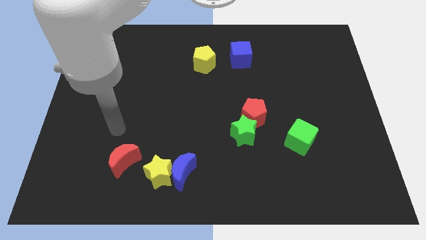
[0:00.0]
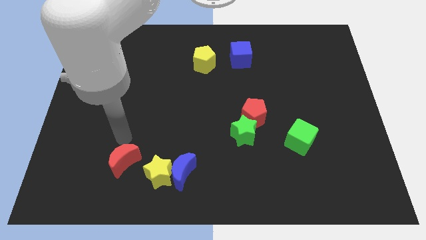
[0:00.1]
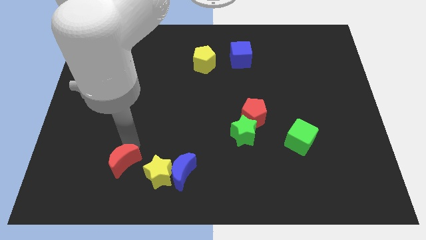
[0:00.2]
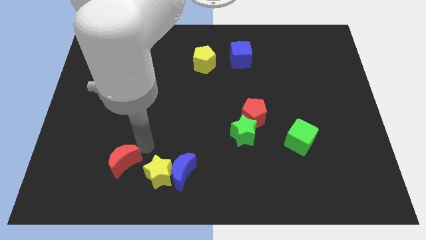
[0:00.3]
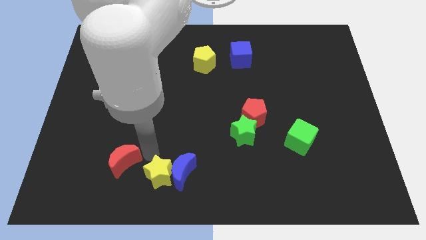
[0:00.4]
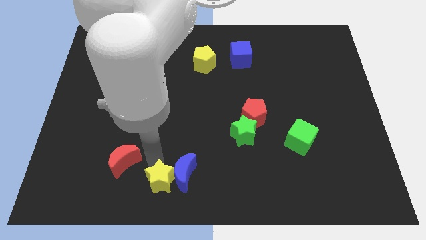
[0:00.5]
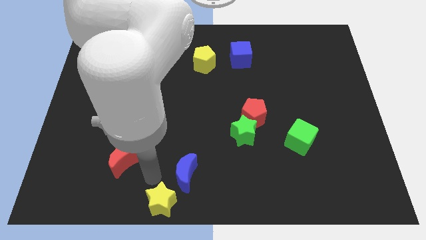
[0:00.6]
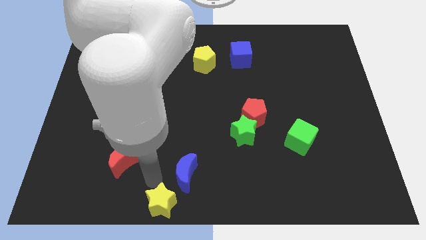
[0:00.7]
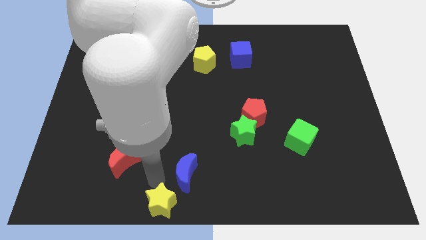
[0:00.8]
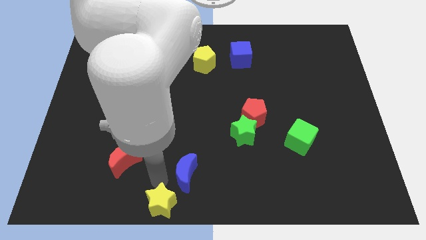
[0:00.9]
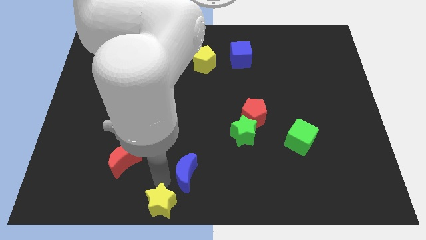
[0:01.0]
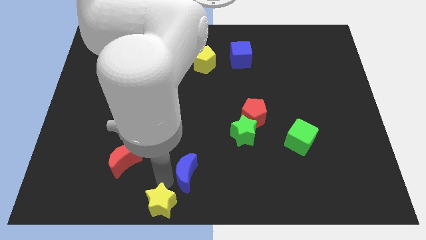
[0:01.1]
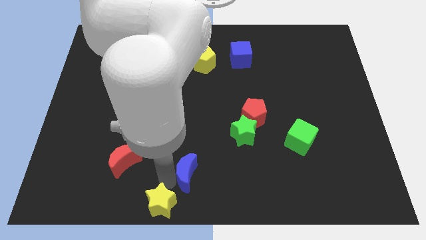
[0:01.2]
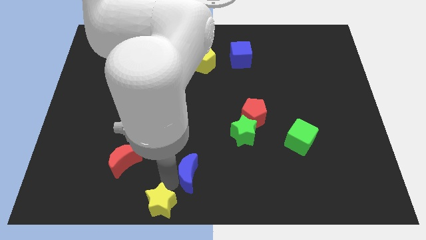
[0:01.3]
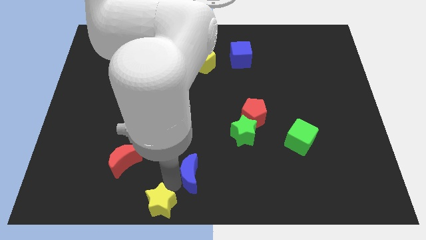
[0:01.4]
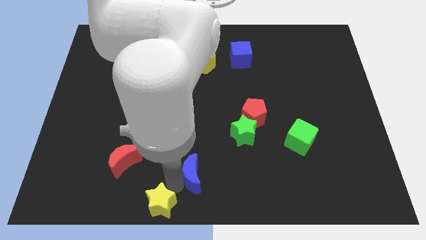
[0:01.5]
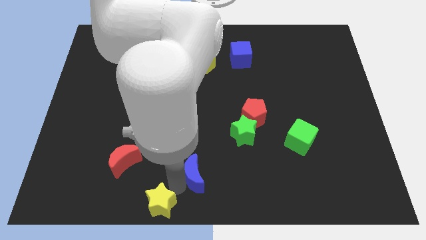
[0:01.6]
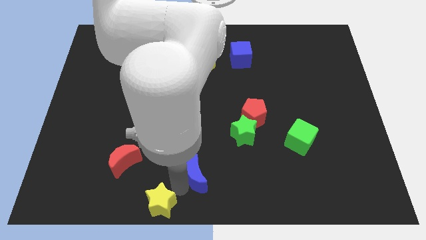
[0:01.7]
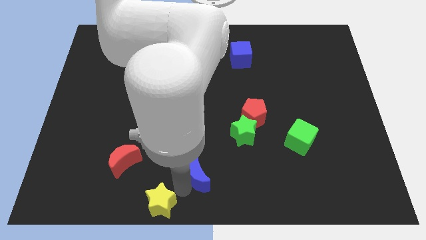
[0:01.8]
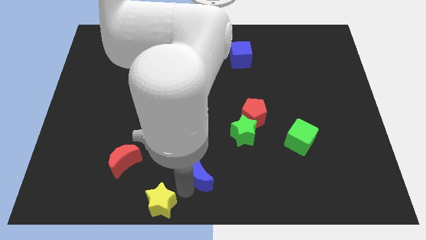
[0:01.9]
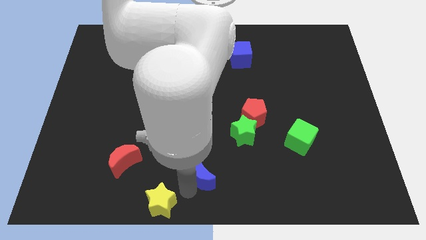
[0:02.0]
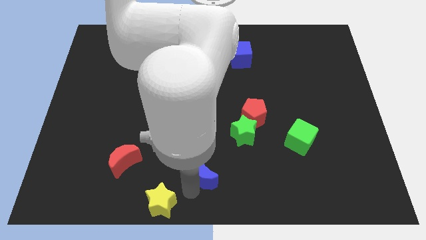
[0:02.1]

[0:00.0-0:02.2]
separate the blue moon from the yellow star

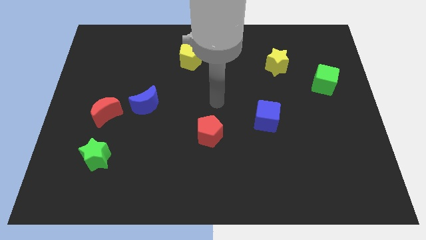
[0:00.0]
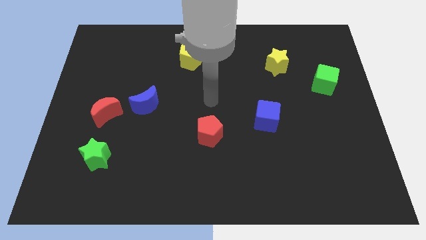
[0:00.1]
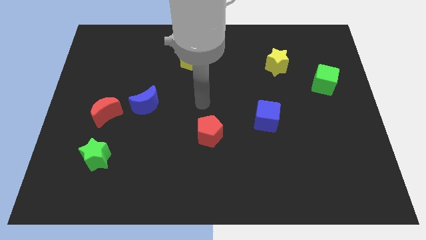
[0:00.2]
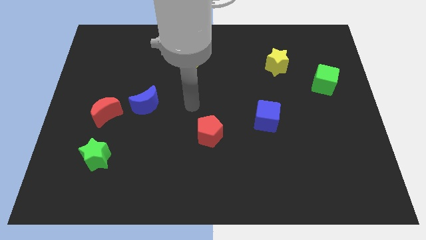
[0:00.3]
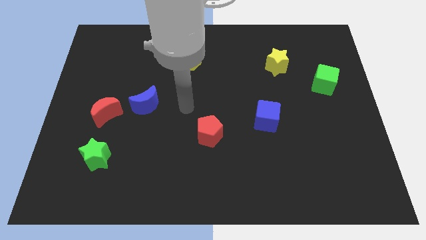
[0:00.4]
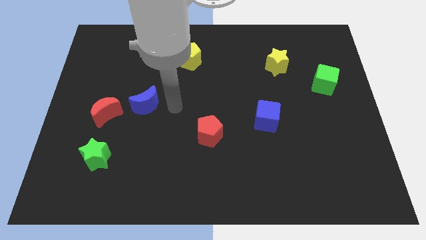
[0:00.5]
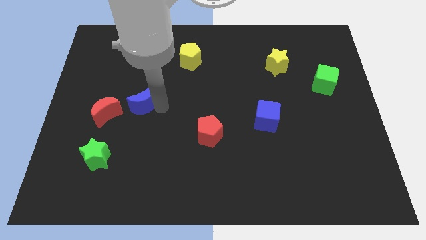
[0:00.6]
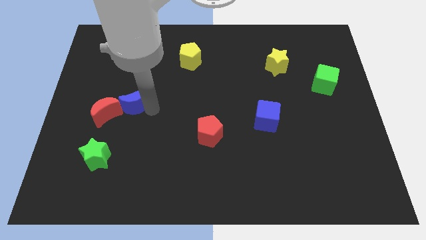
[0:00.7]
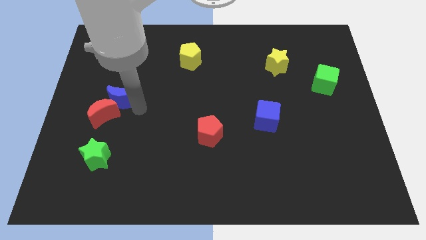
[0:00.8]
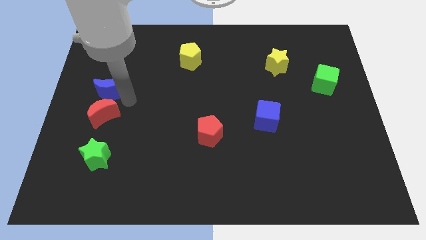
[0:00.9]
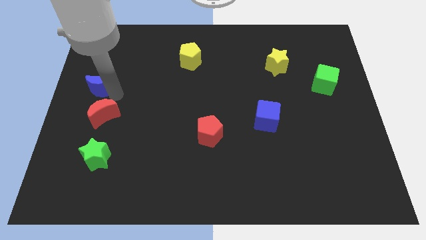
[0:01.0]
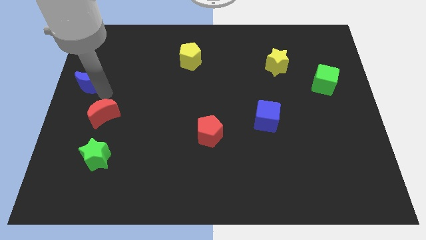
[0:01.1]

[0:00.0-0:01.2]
separate the red moon from the blue moon

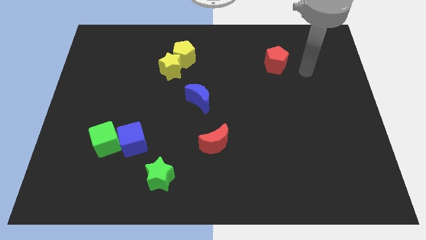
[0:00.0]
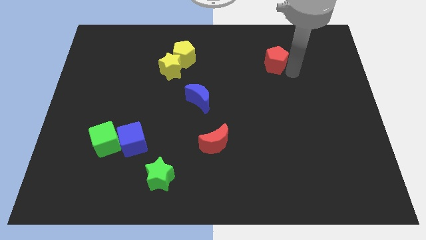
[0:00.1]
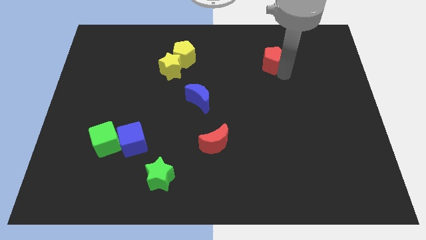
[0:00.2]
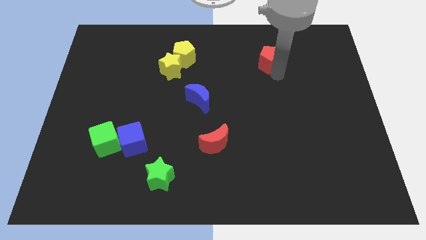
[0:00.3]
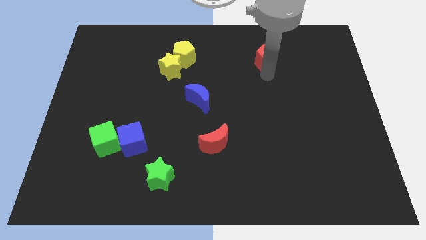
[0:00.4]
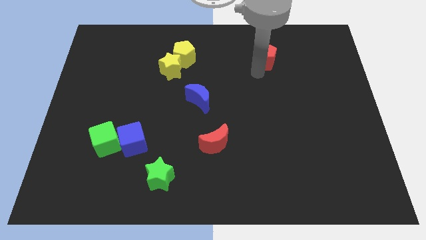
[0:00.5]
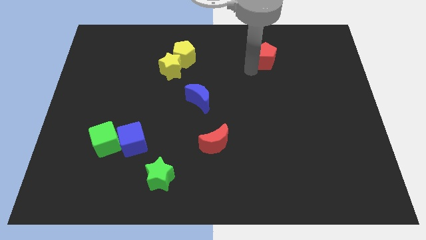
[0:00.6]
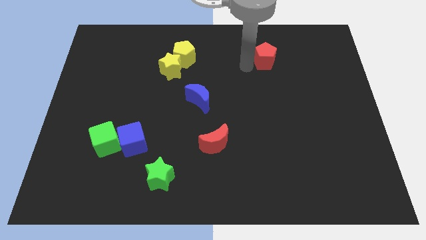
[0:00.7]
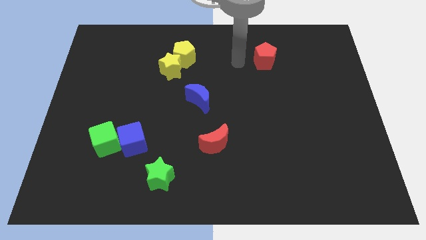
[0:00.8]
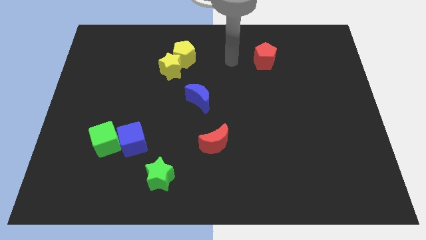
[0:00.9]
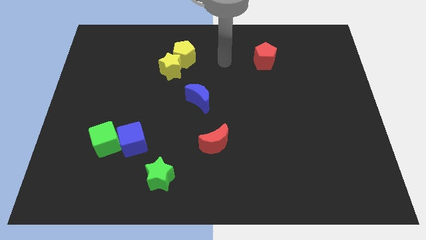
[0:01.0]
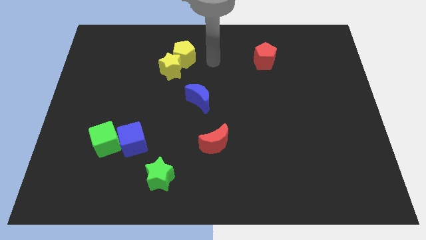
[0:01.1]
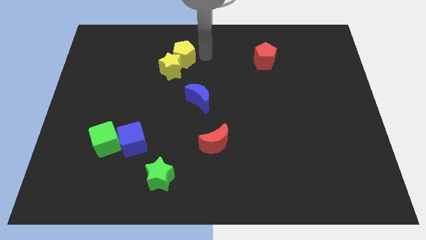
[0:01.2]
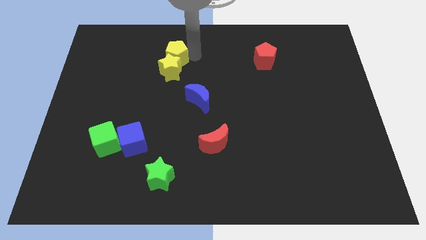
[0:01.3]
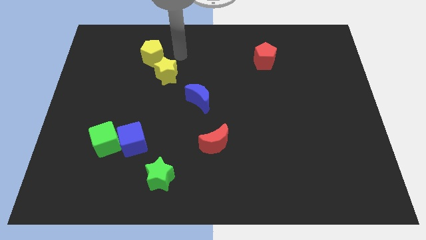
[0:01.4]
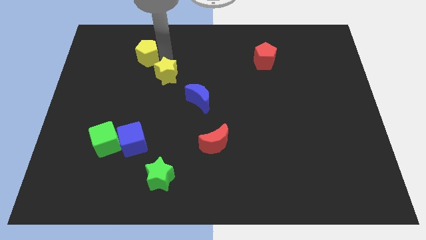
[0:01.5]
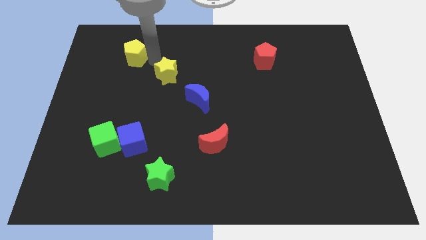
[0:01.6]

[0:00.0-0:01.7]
move the yellow star away from the yellow pentagon

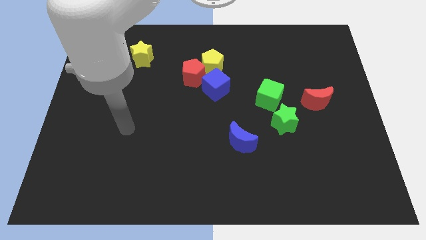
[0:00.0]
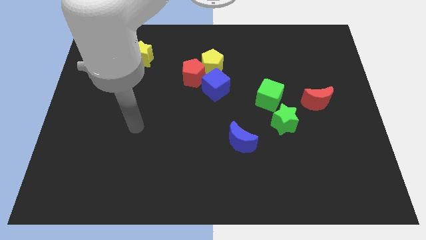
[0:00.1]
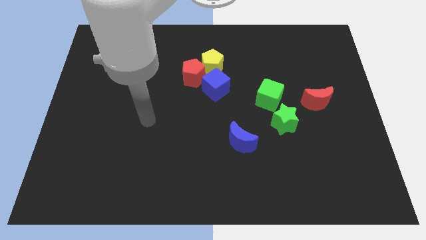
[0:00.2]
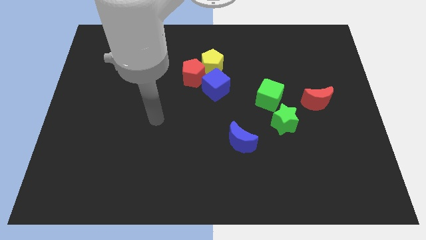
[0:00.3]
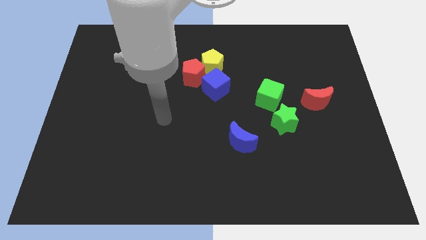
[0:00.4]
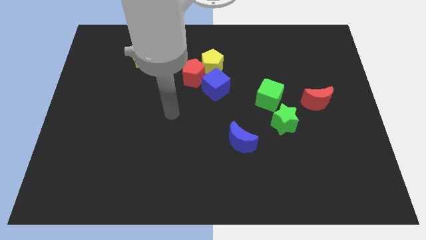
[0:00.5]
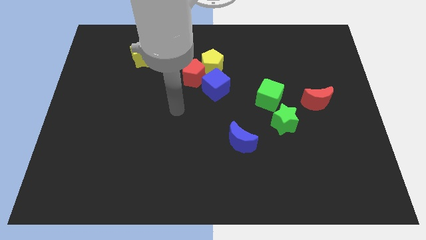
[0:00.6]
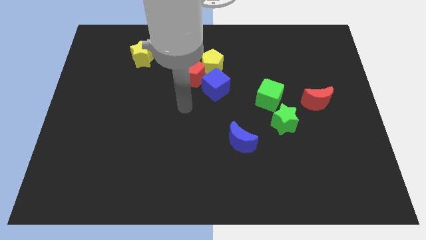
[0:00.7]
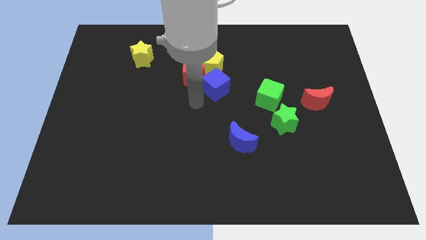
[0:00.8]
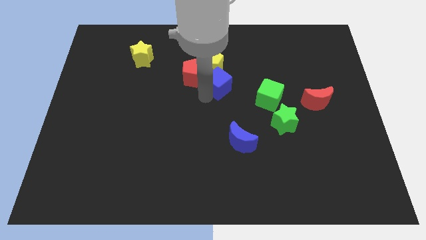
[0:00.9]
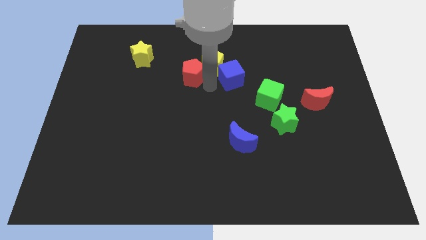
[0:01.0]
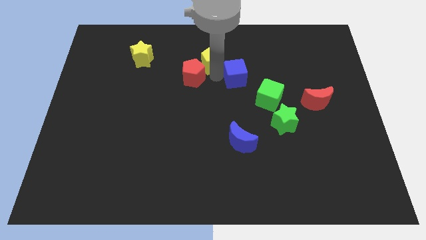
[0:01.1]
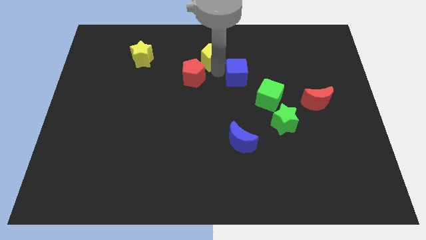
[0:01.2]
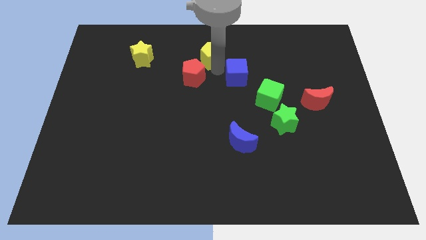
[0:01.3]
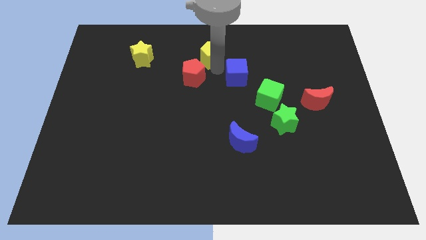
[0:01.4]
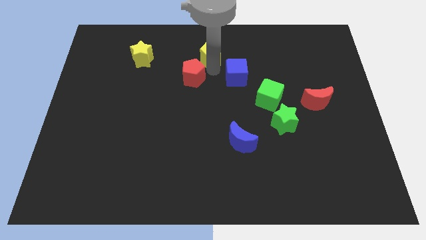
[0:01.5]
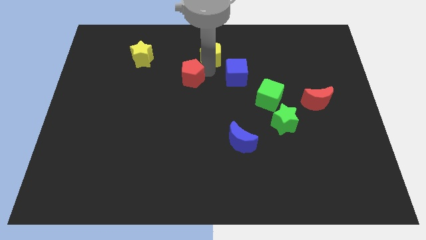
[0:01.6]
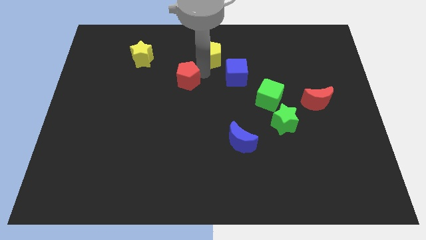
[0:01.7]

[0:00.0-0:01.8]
move the red pentagon away from the yellow pentagon and blue cube

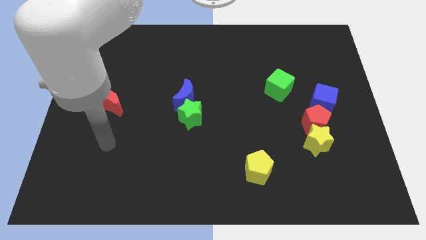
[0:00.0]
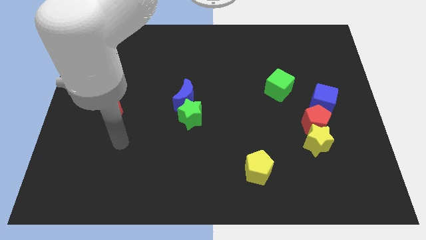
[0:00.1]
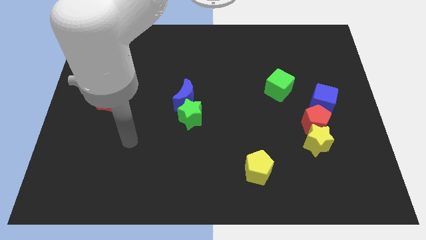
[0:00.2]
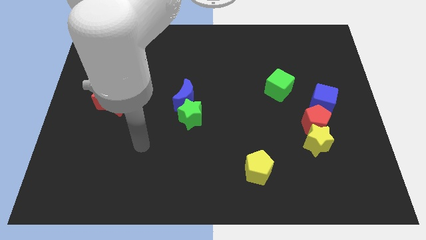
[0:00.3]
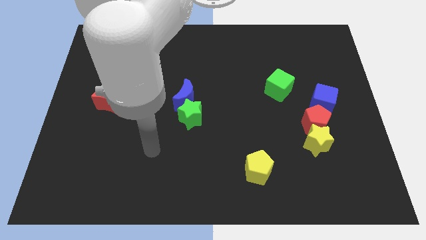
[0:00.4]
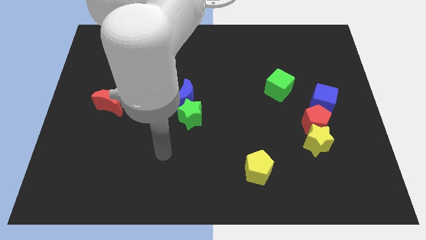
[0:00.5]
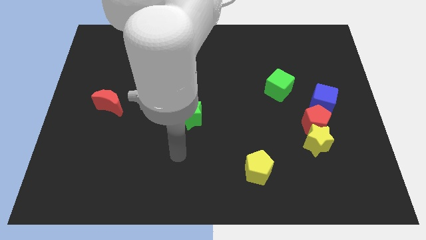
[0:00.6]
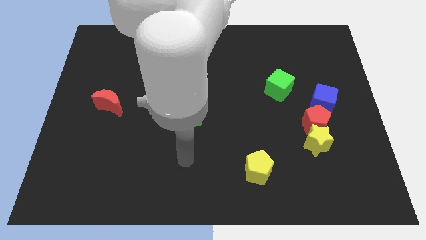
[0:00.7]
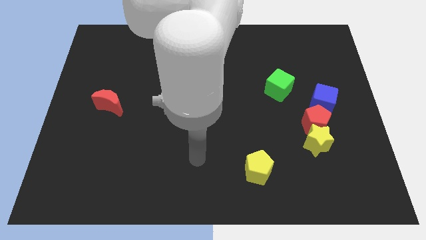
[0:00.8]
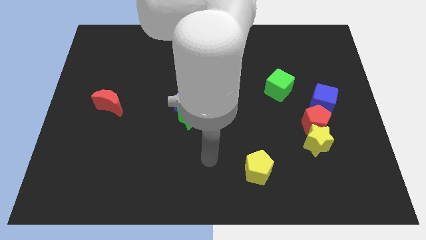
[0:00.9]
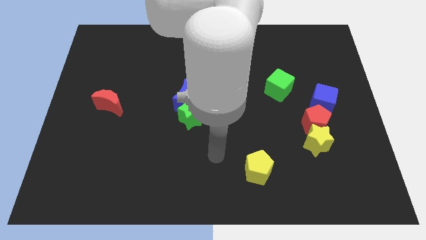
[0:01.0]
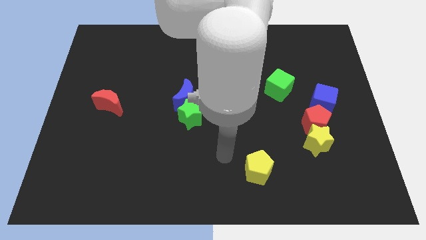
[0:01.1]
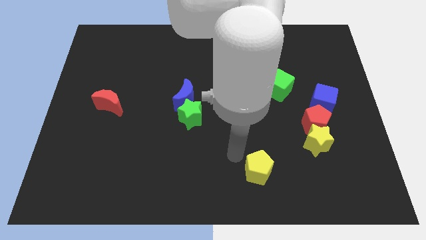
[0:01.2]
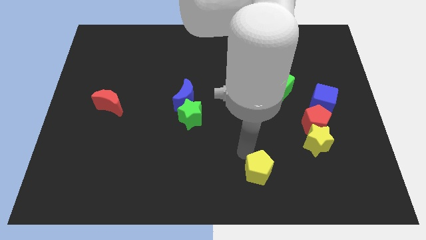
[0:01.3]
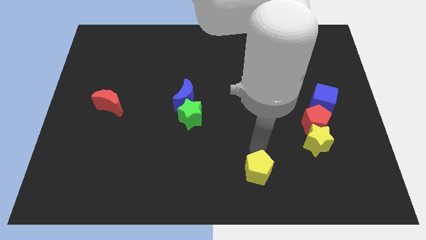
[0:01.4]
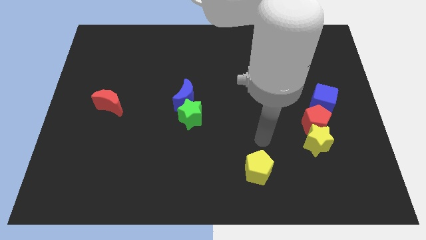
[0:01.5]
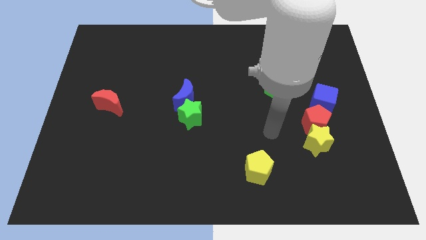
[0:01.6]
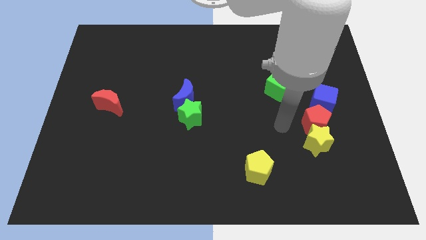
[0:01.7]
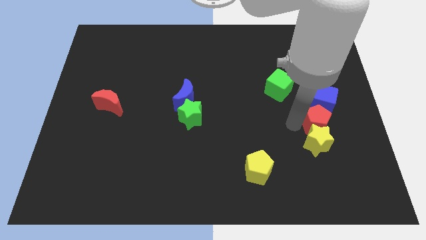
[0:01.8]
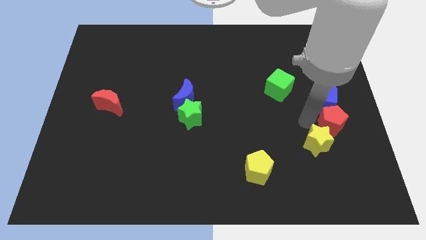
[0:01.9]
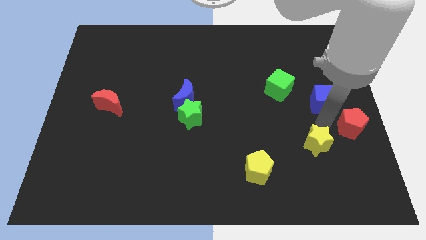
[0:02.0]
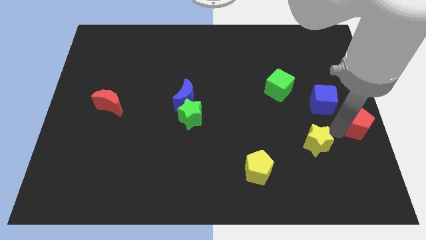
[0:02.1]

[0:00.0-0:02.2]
pull the yellow star apart from the red pentagon

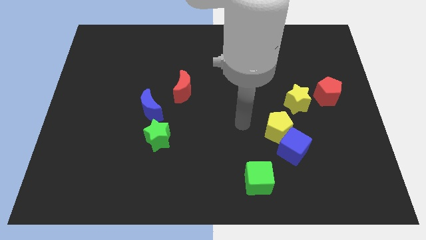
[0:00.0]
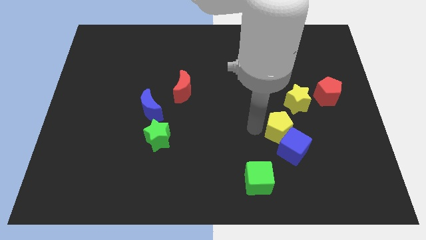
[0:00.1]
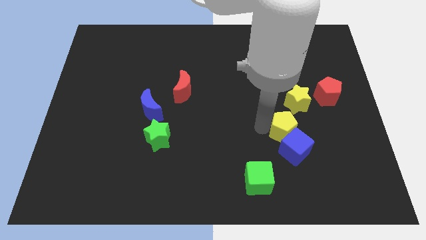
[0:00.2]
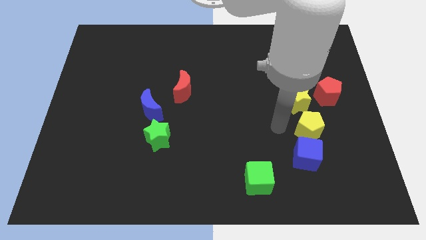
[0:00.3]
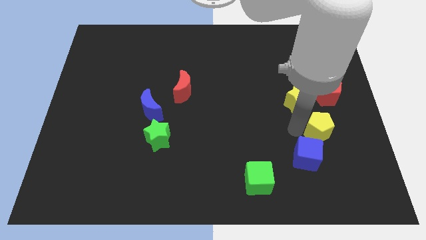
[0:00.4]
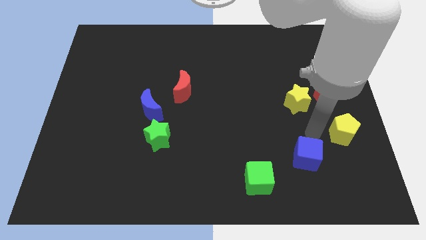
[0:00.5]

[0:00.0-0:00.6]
separate the blue cube from the yellow pentagon
